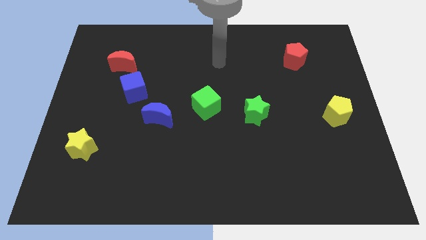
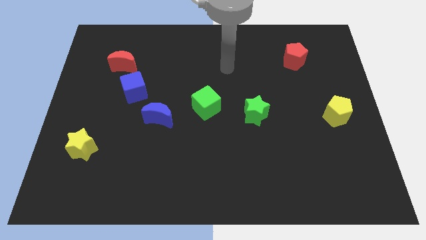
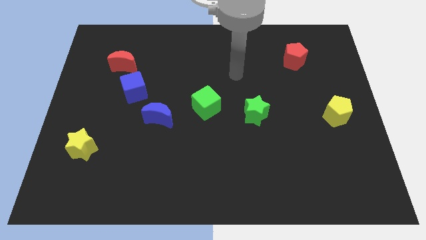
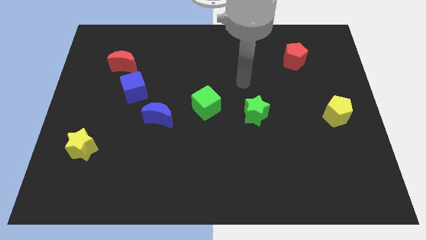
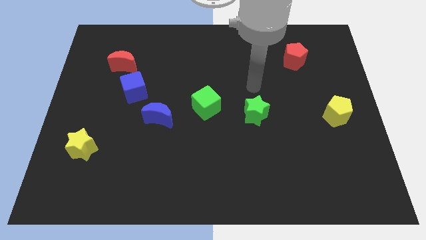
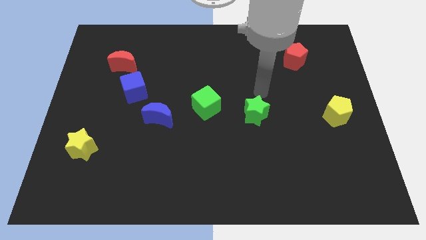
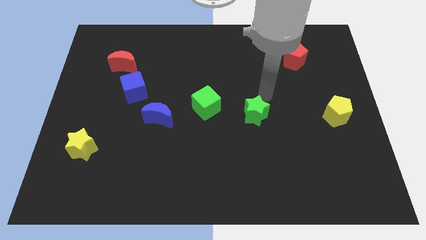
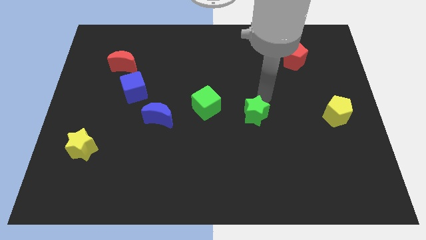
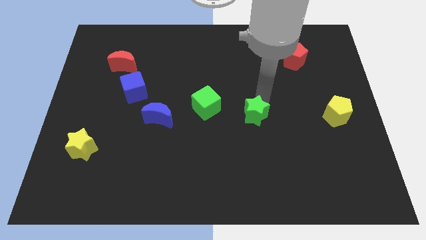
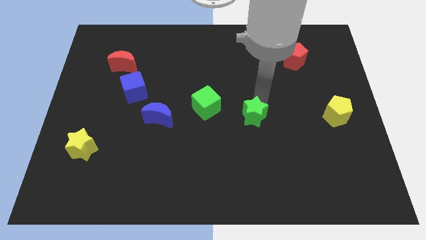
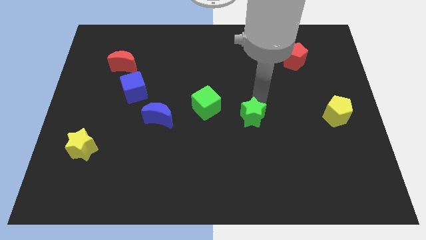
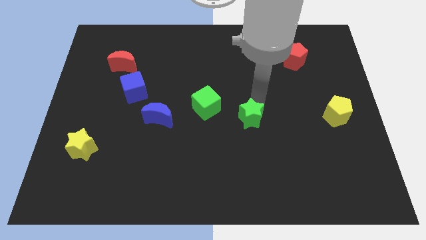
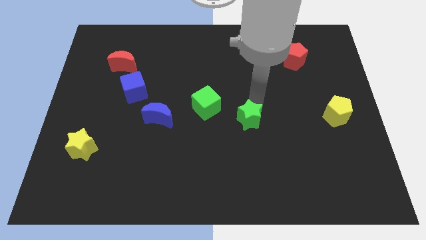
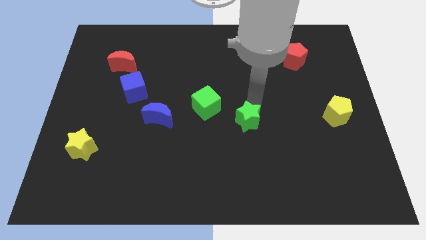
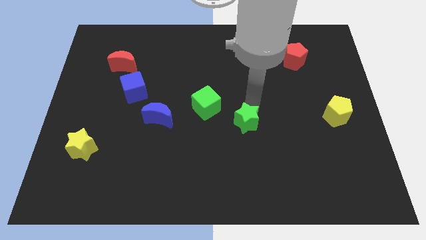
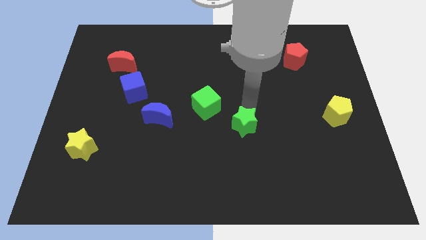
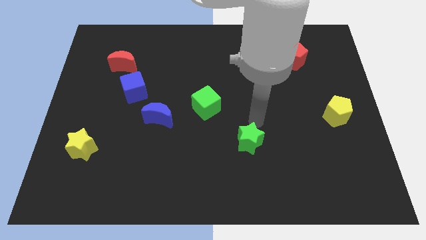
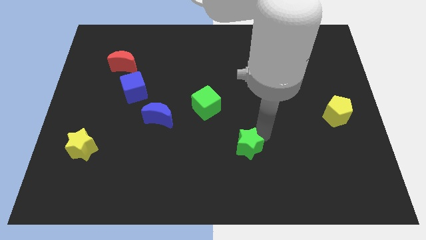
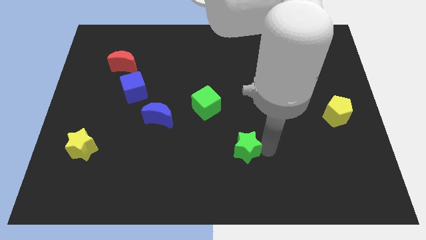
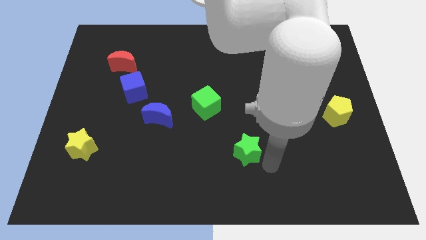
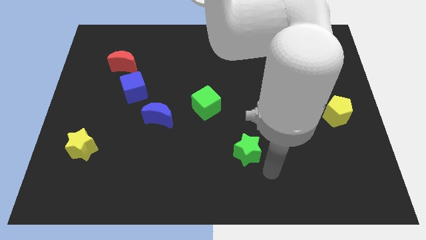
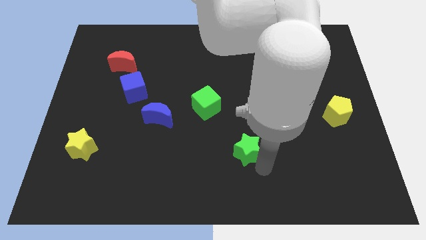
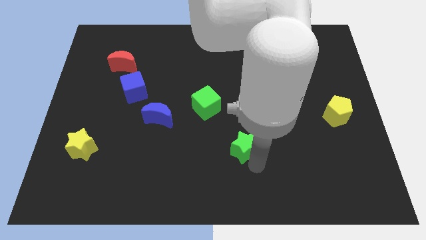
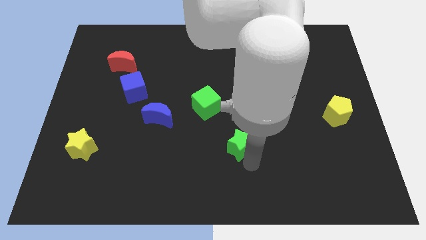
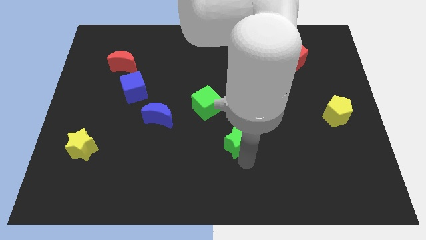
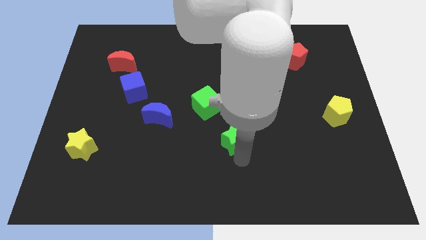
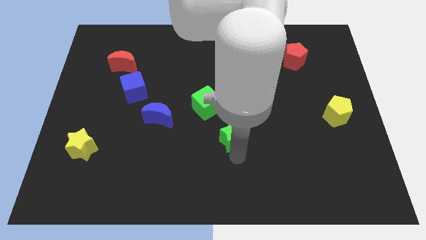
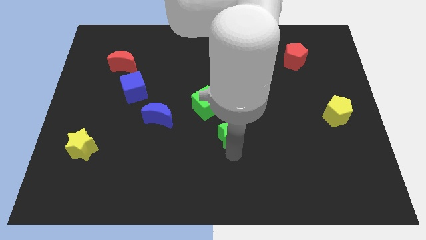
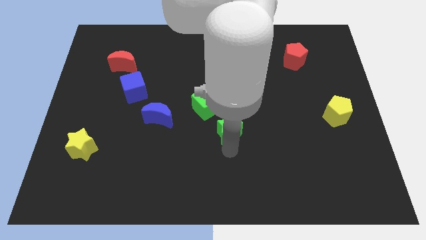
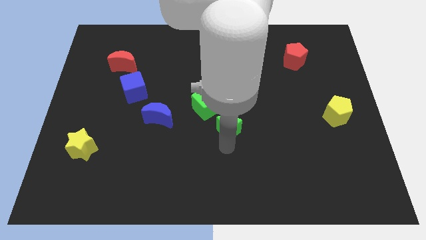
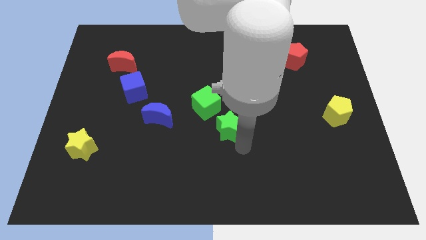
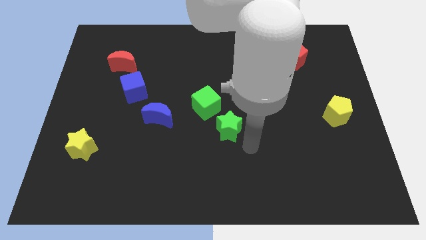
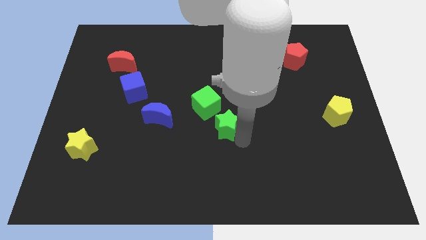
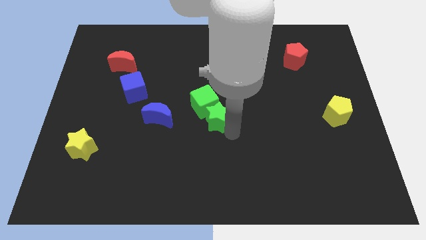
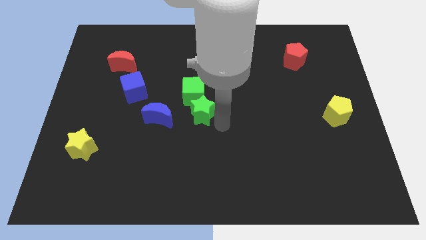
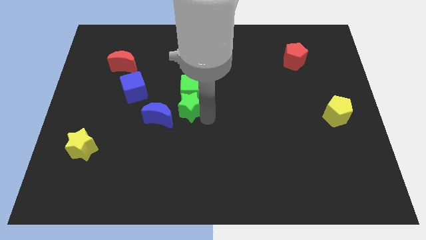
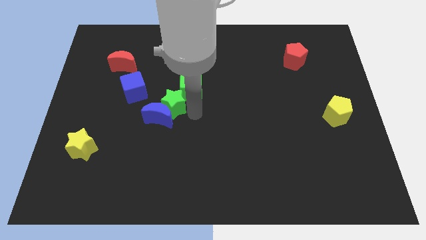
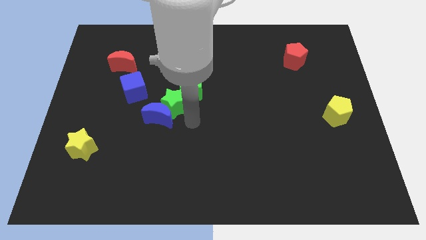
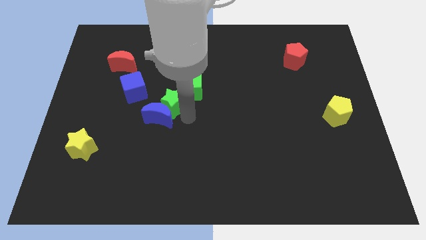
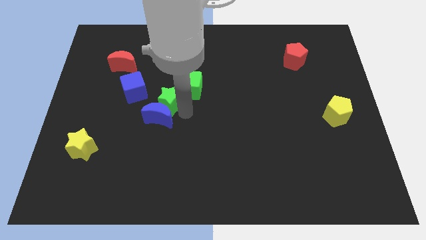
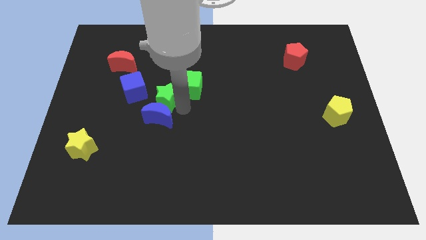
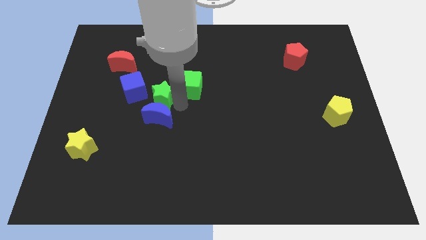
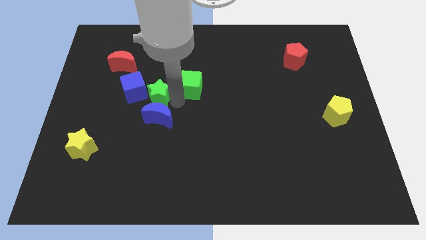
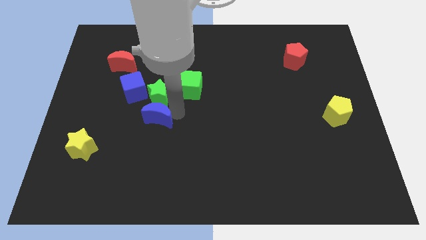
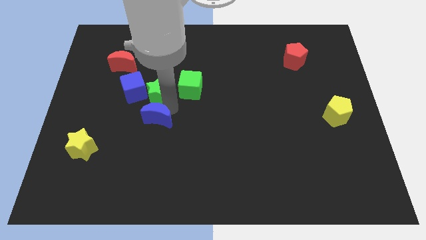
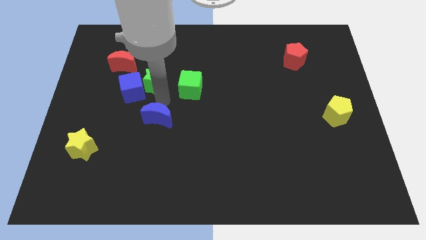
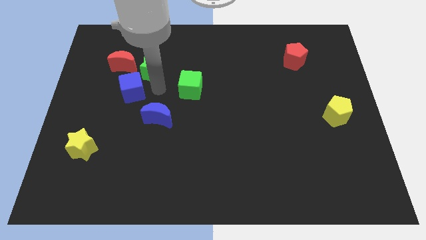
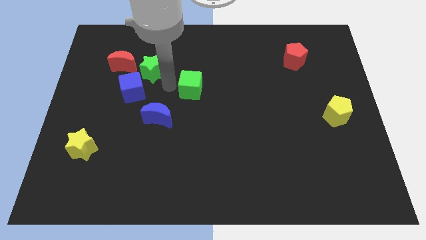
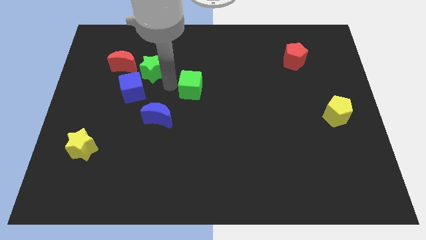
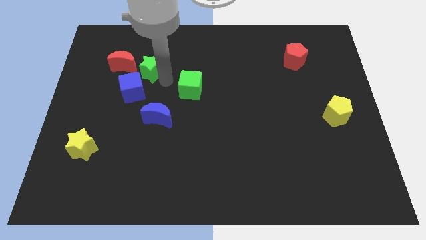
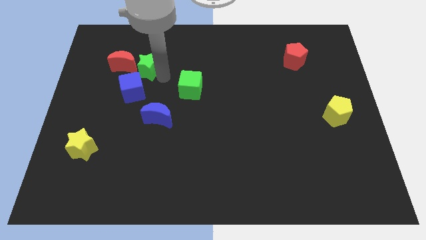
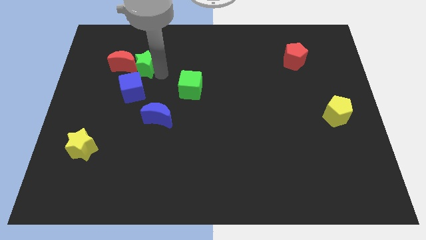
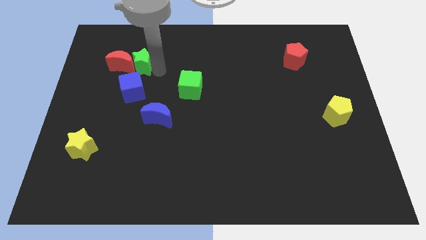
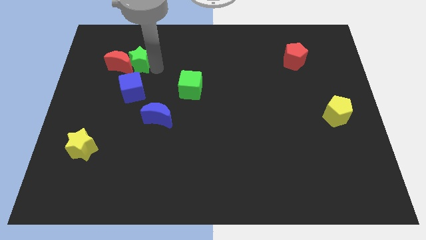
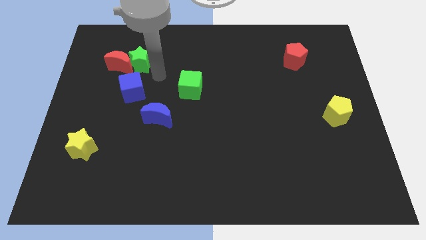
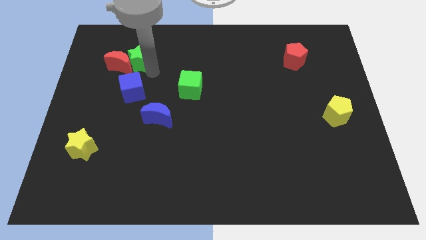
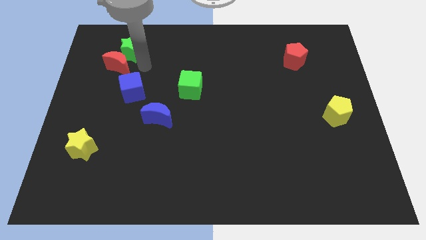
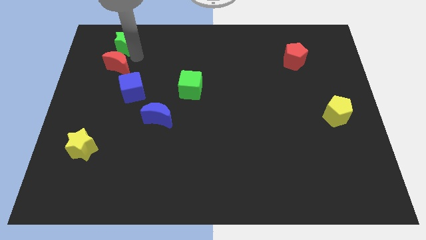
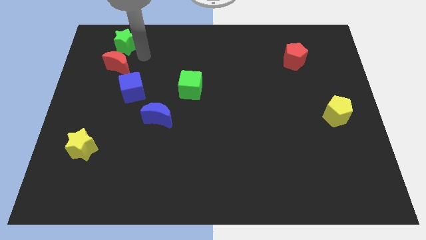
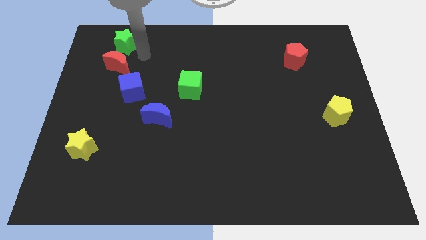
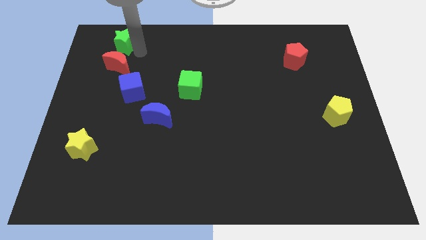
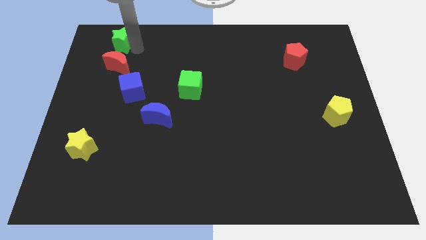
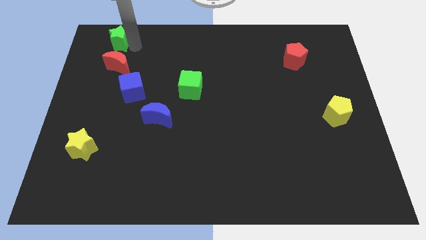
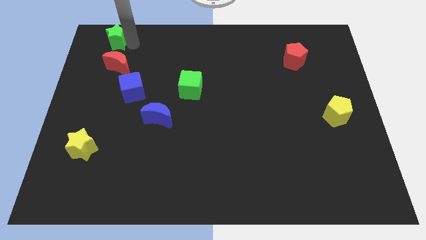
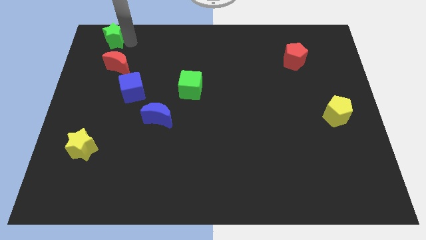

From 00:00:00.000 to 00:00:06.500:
move the green star to the top left corner
